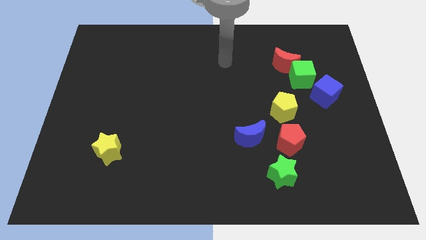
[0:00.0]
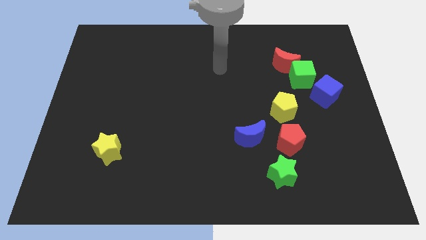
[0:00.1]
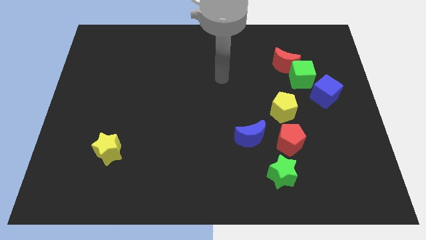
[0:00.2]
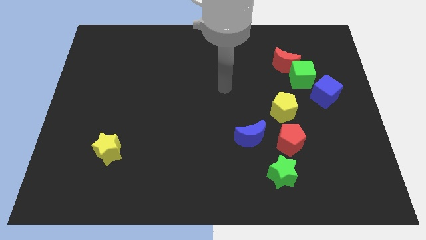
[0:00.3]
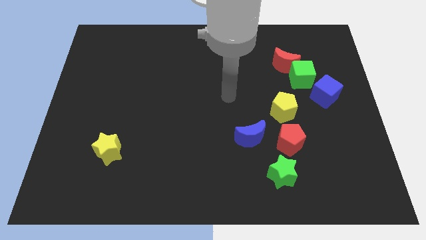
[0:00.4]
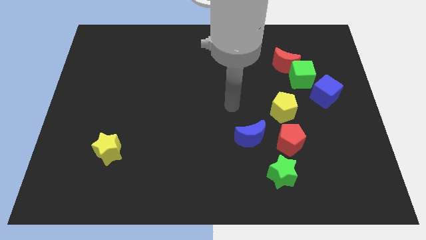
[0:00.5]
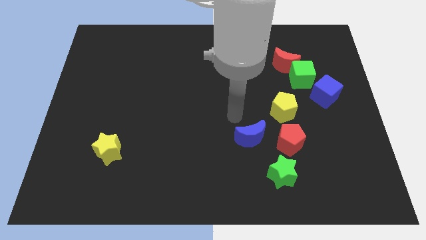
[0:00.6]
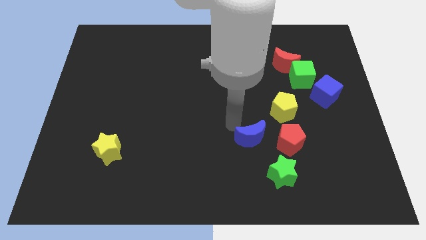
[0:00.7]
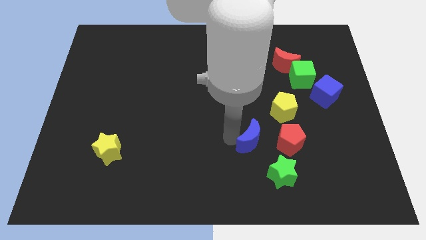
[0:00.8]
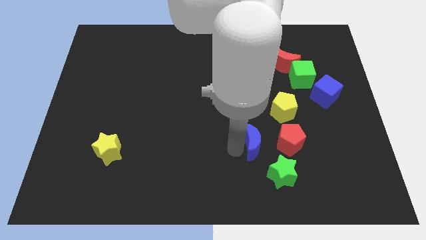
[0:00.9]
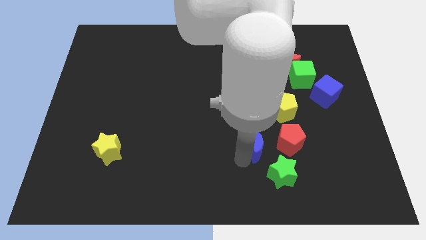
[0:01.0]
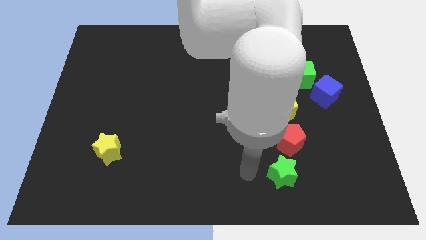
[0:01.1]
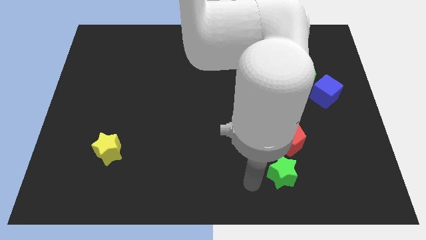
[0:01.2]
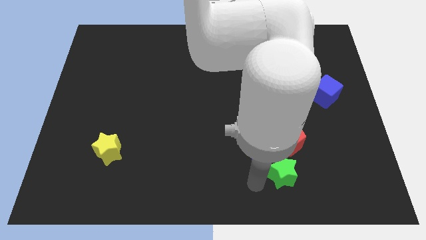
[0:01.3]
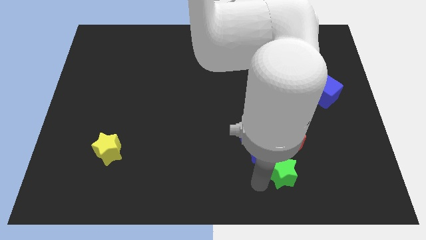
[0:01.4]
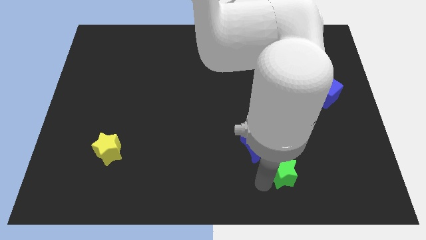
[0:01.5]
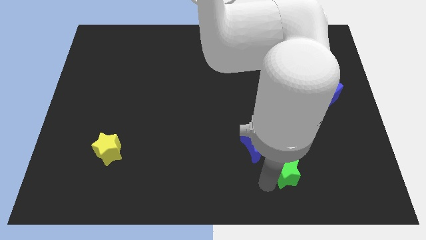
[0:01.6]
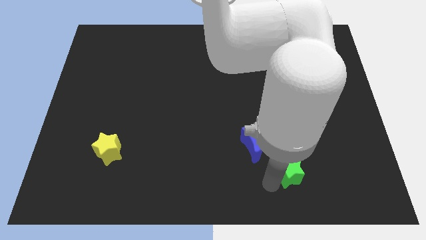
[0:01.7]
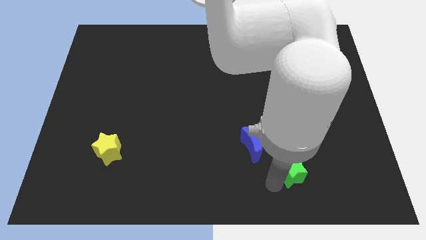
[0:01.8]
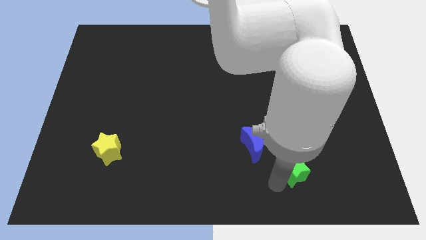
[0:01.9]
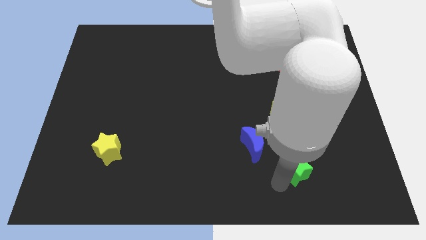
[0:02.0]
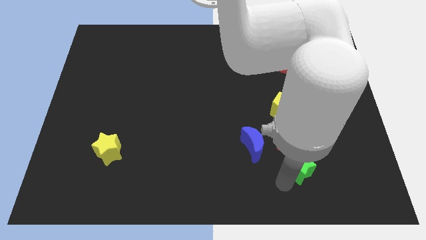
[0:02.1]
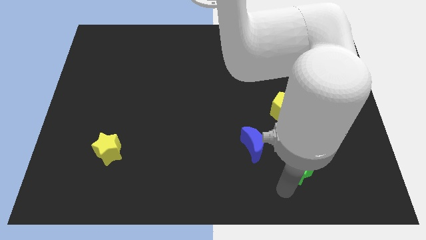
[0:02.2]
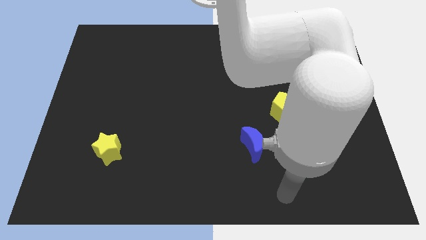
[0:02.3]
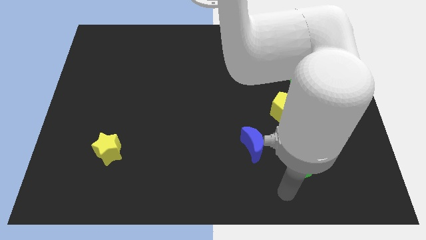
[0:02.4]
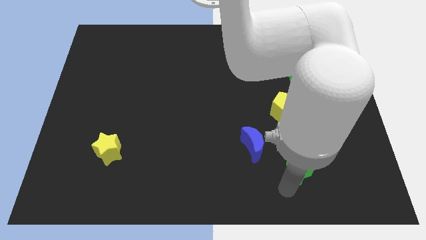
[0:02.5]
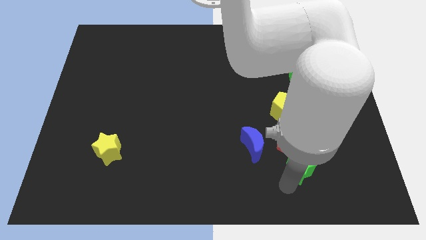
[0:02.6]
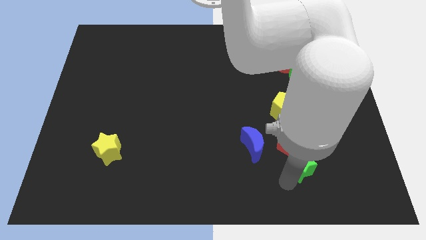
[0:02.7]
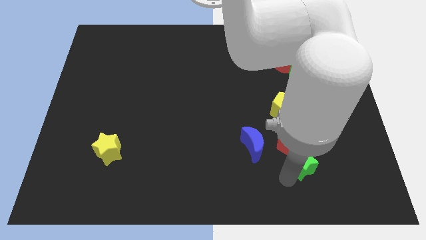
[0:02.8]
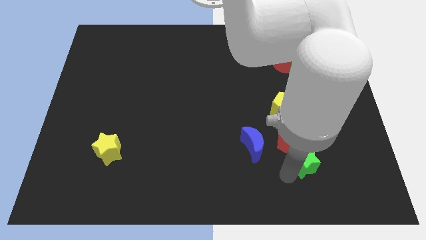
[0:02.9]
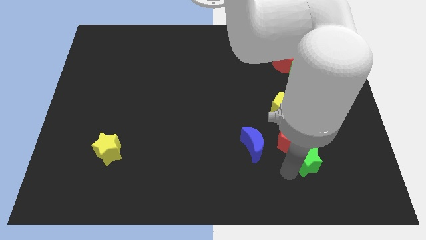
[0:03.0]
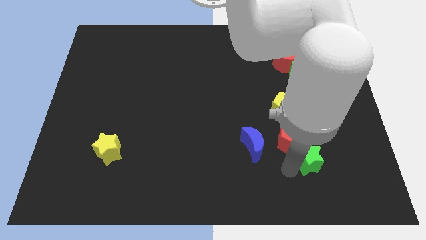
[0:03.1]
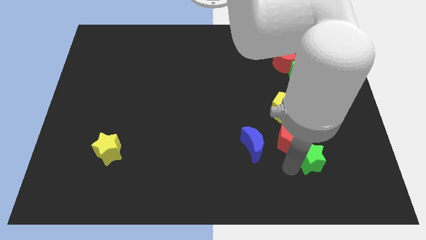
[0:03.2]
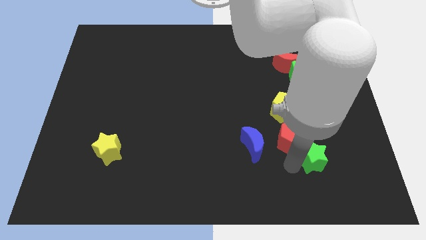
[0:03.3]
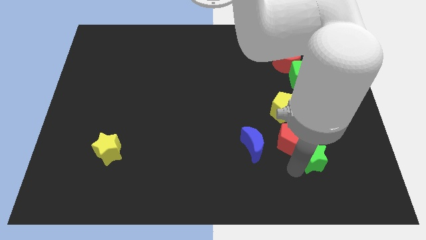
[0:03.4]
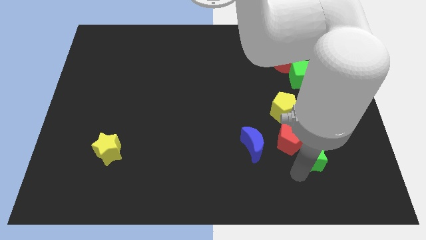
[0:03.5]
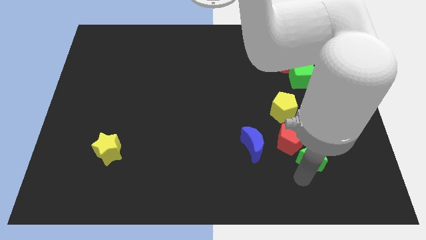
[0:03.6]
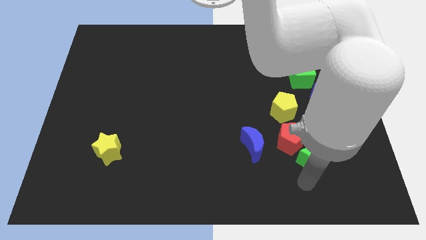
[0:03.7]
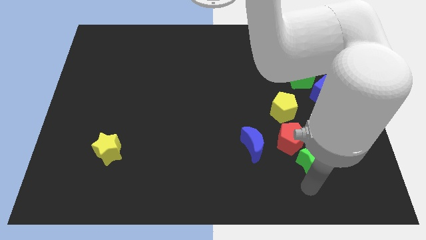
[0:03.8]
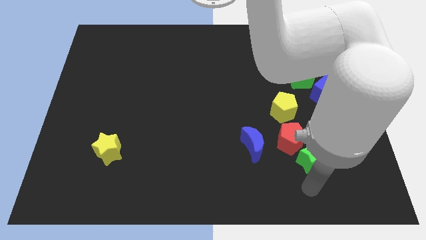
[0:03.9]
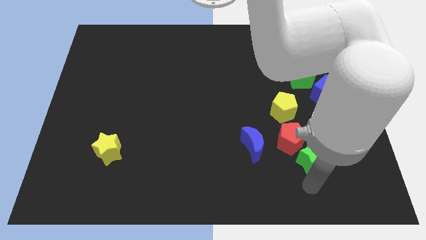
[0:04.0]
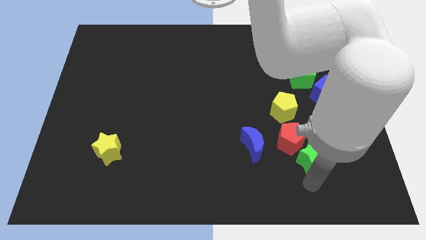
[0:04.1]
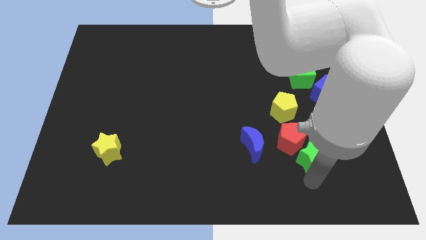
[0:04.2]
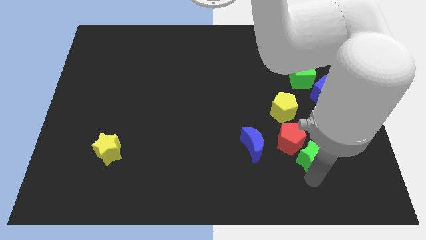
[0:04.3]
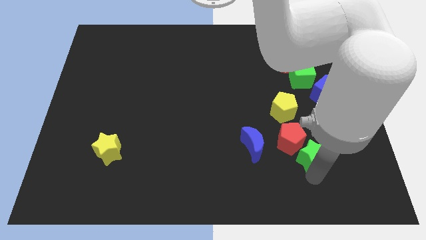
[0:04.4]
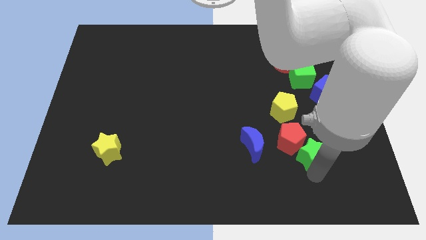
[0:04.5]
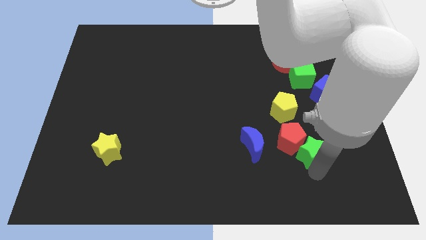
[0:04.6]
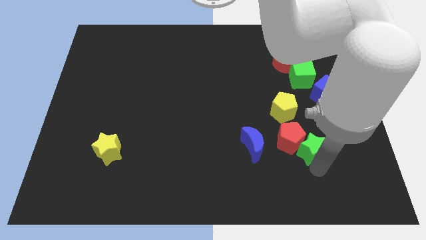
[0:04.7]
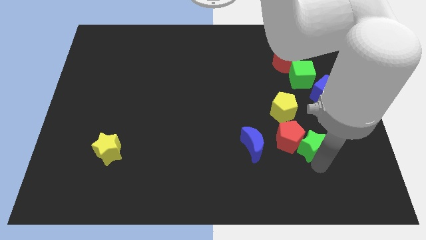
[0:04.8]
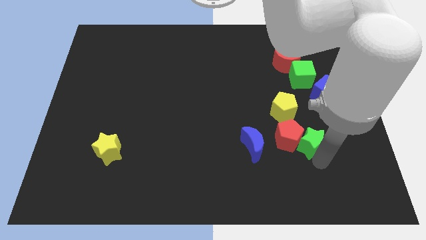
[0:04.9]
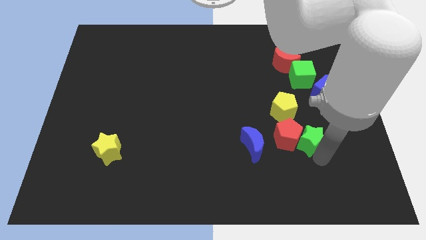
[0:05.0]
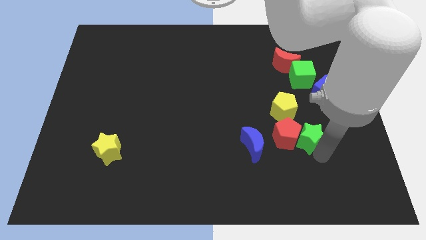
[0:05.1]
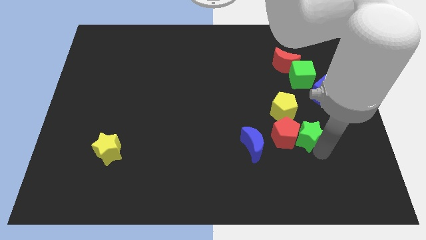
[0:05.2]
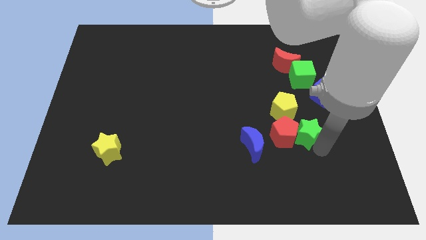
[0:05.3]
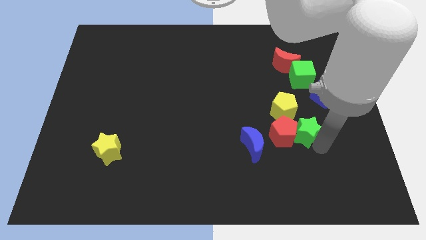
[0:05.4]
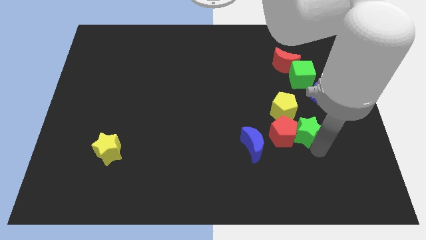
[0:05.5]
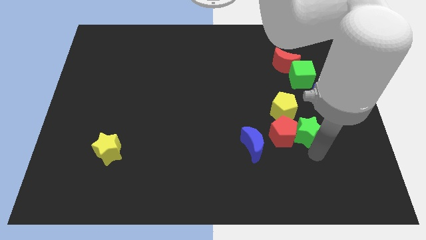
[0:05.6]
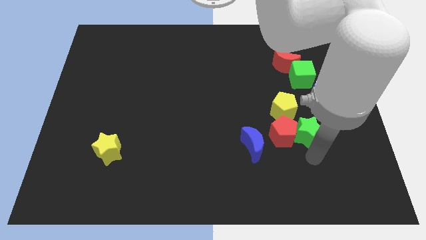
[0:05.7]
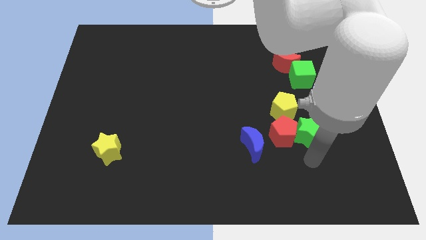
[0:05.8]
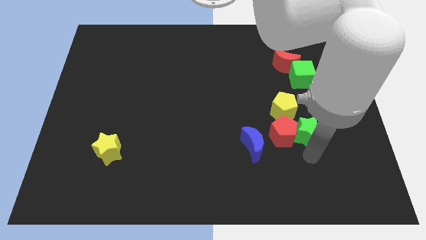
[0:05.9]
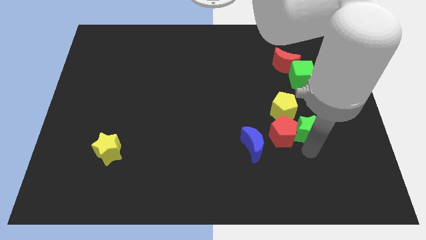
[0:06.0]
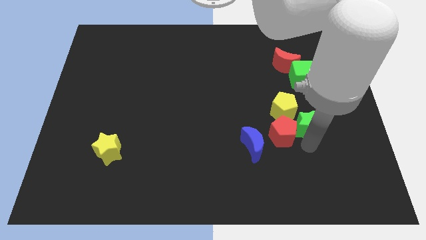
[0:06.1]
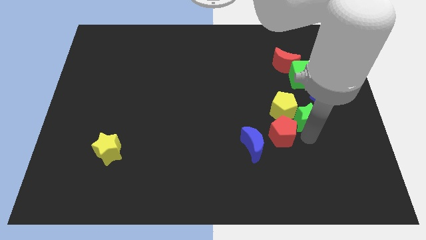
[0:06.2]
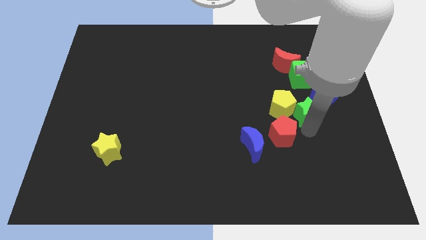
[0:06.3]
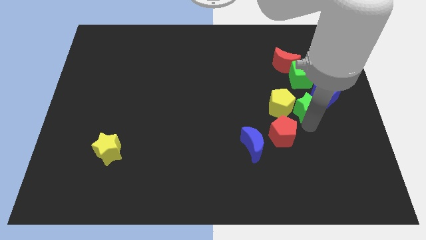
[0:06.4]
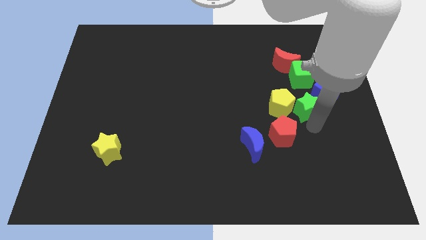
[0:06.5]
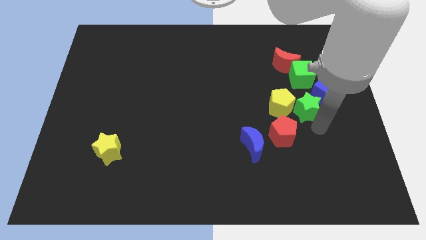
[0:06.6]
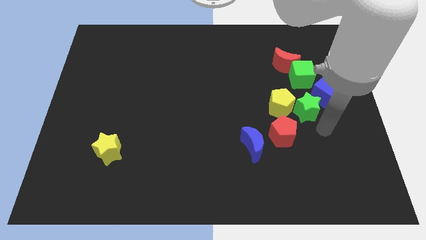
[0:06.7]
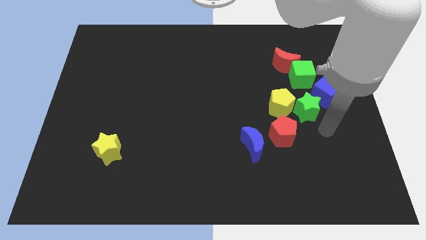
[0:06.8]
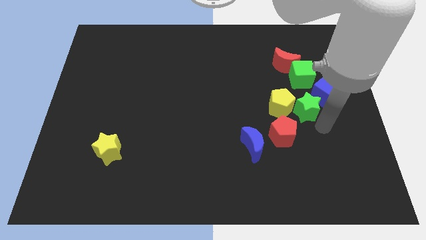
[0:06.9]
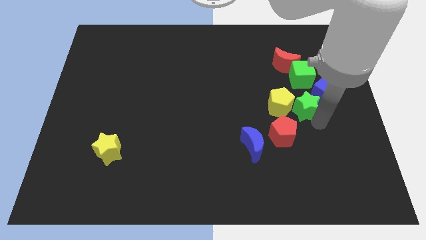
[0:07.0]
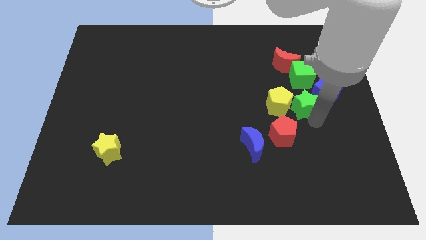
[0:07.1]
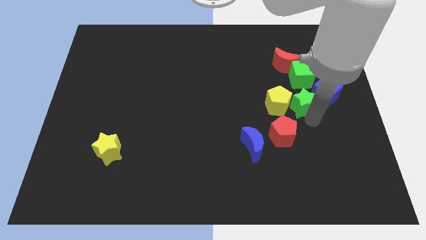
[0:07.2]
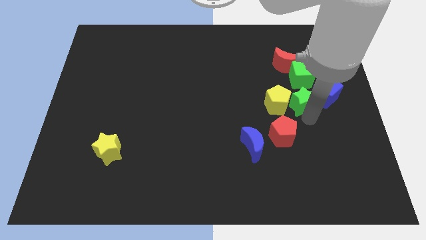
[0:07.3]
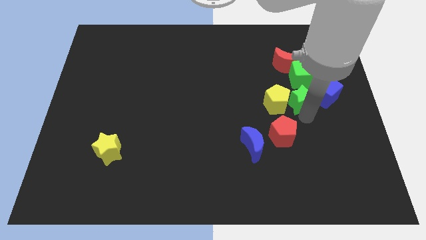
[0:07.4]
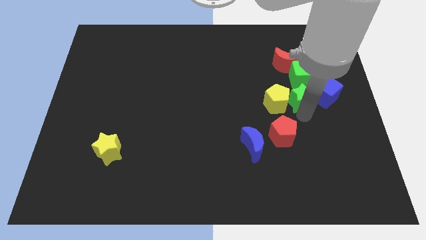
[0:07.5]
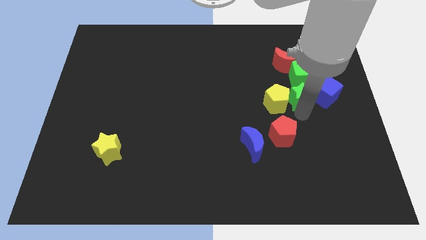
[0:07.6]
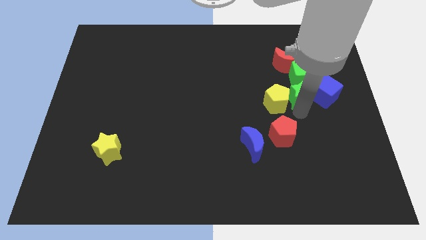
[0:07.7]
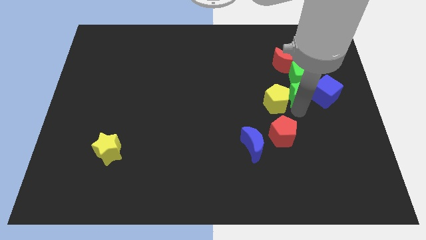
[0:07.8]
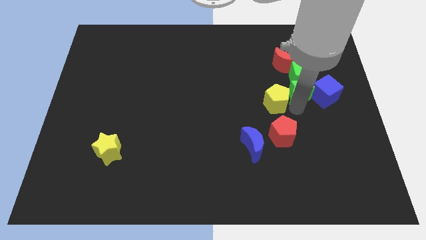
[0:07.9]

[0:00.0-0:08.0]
push the green star to the green cube
